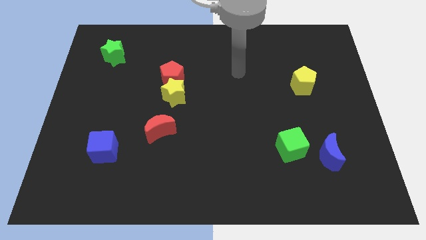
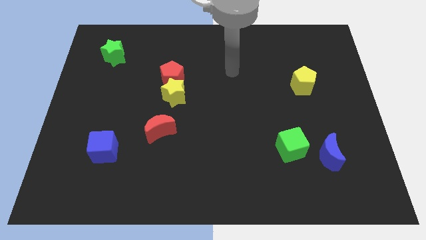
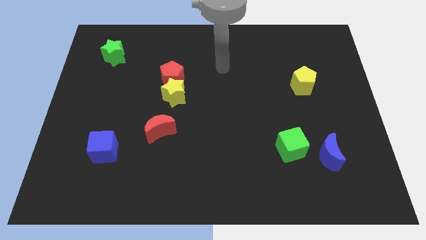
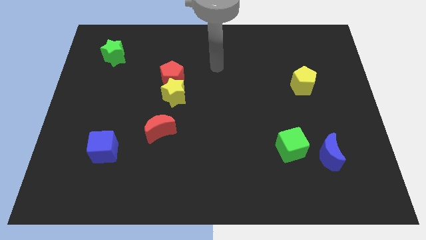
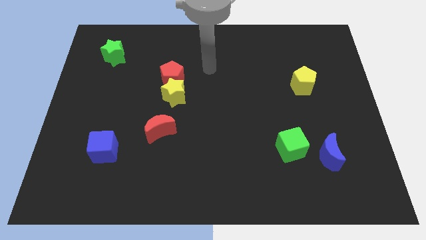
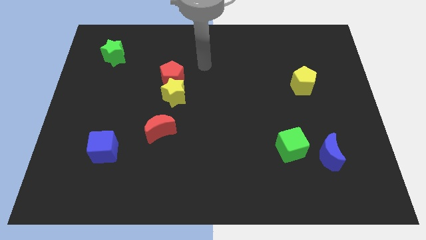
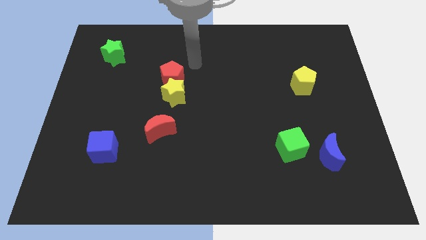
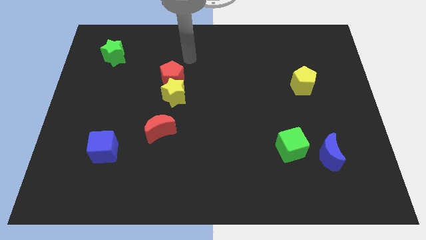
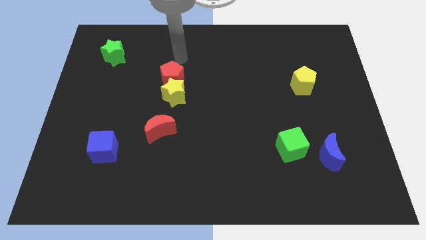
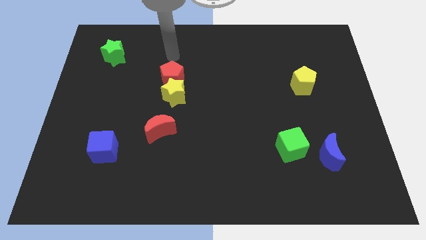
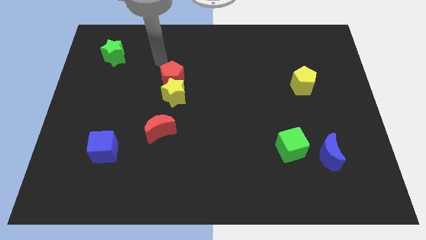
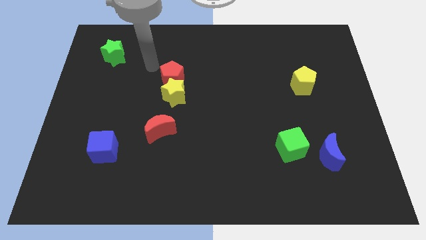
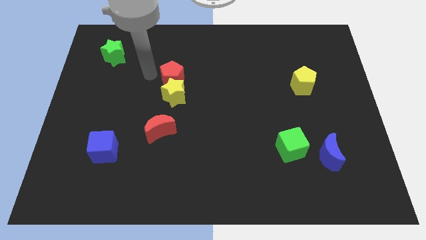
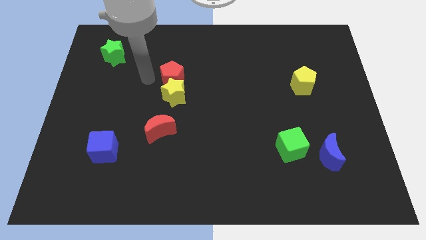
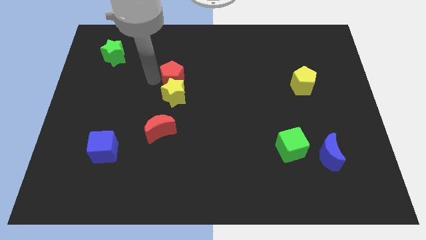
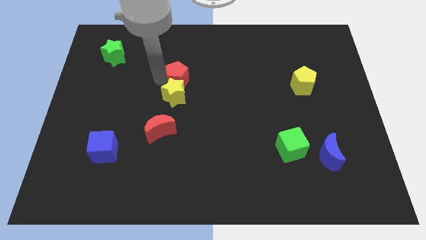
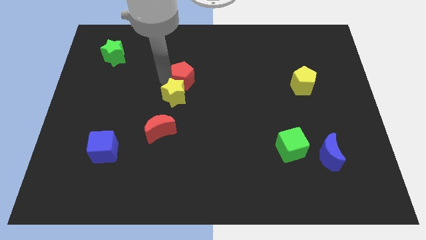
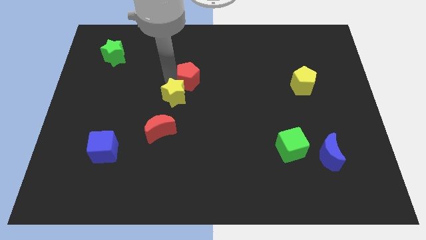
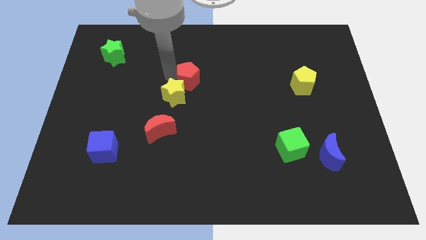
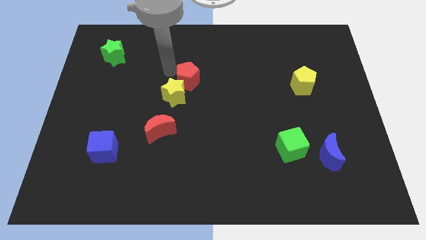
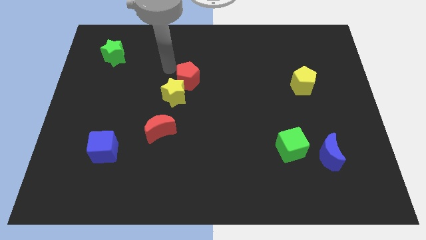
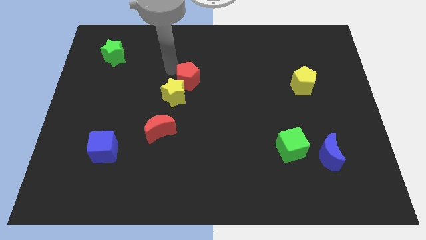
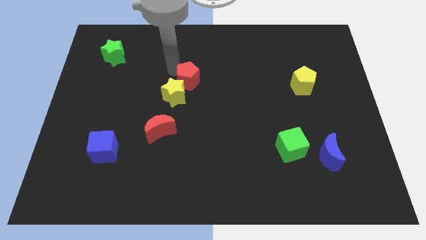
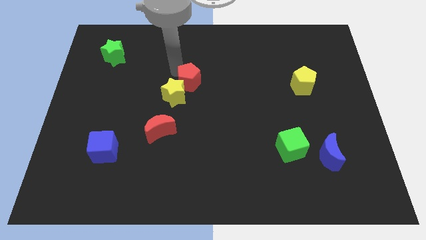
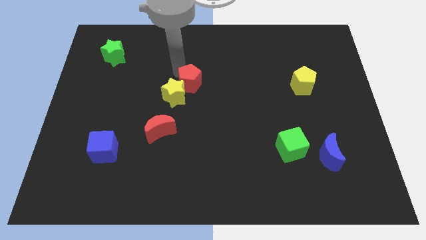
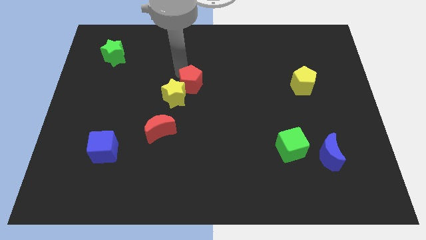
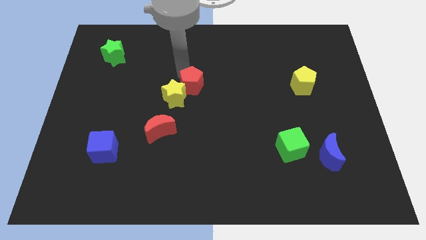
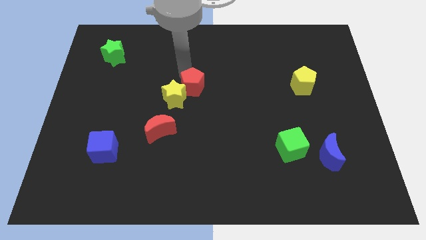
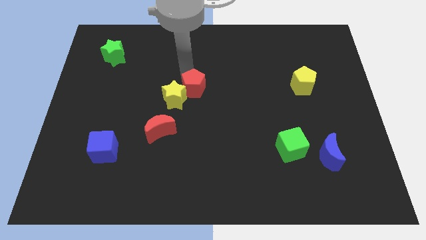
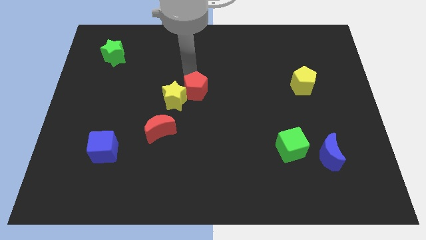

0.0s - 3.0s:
move the red pentagon down and to the right a little bit

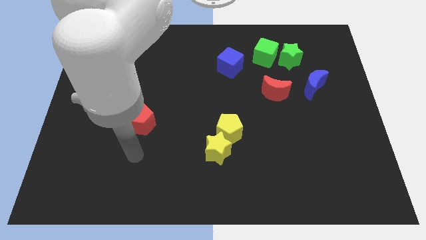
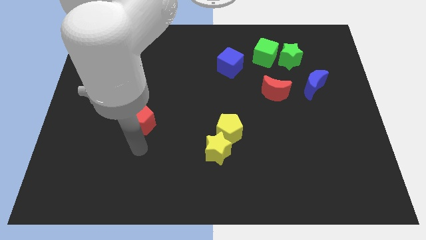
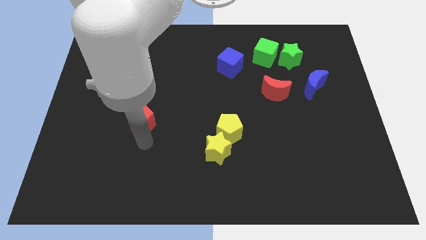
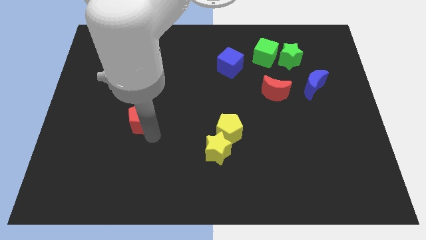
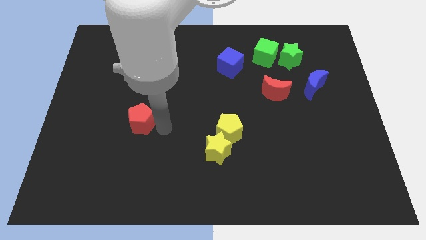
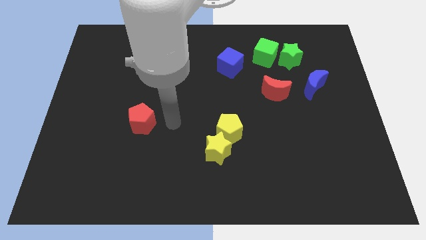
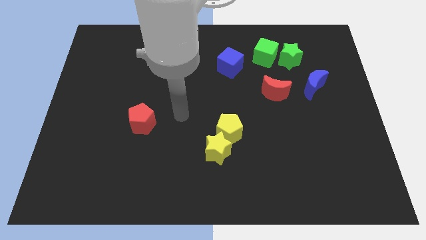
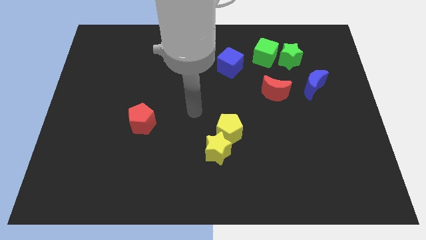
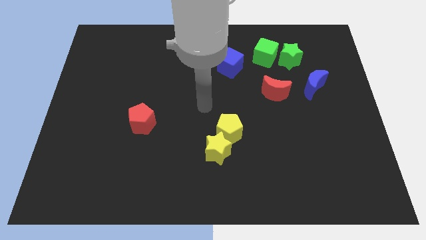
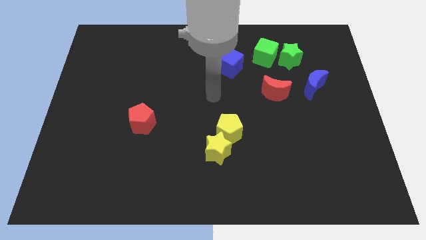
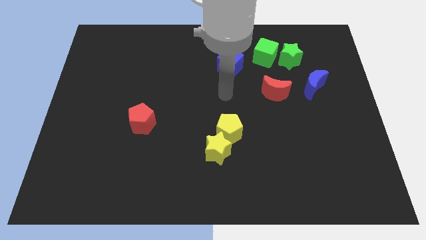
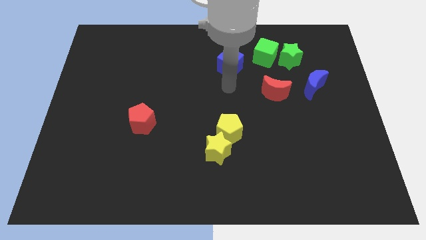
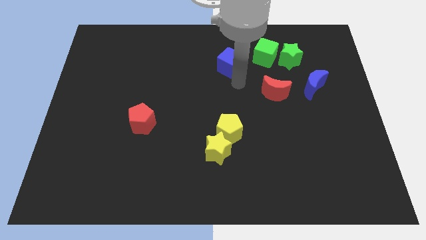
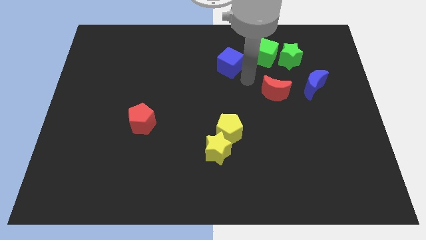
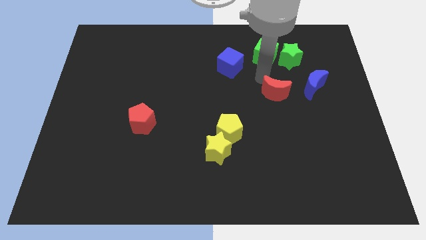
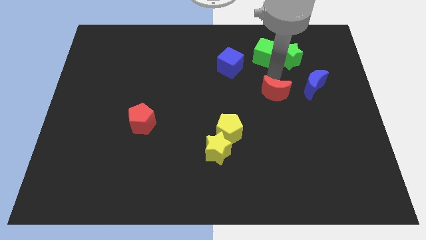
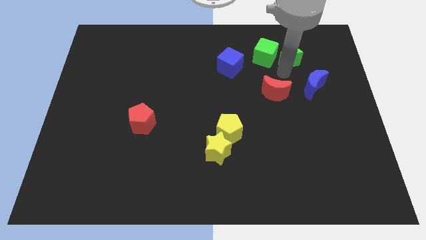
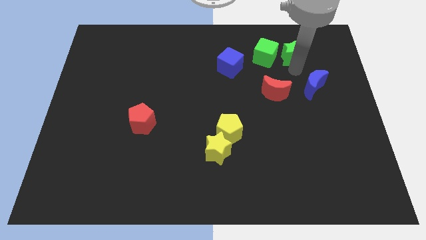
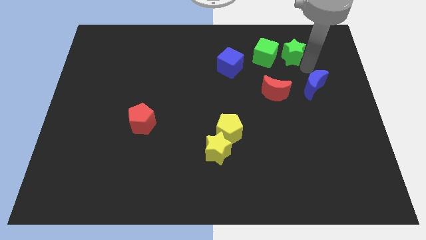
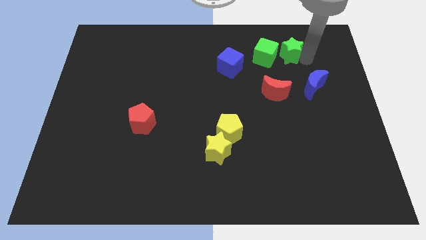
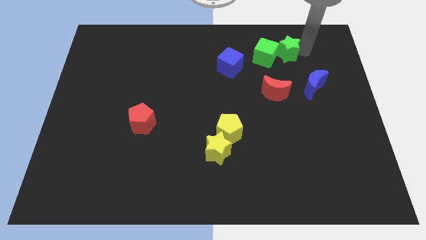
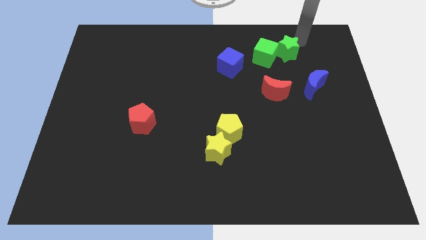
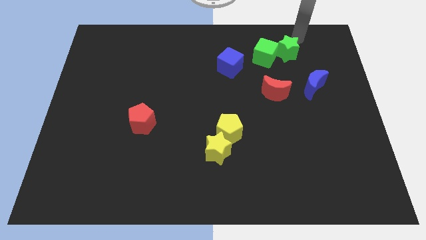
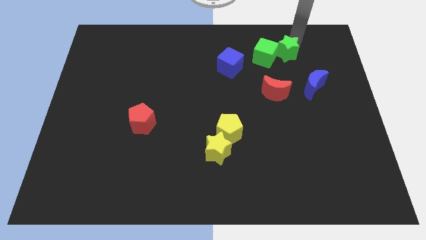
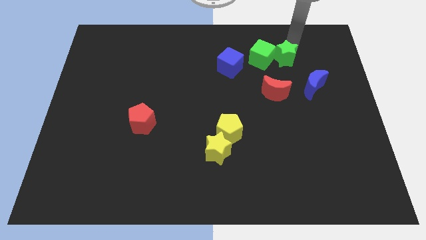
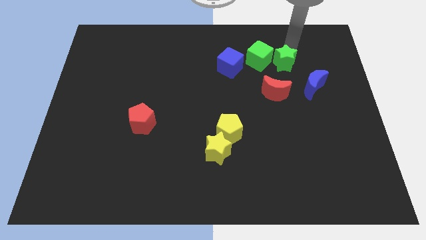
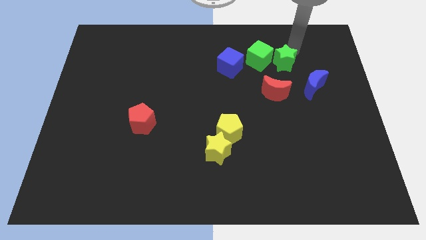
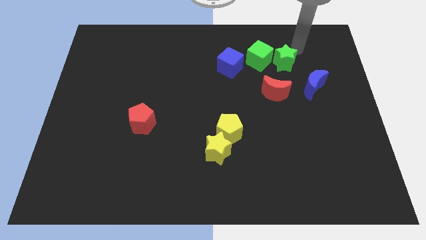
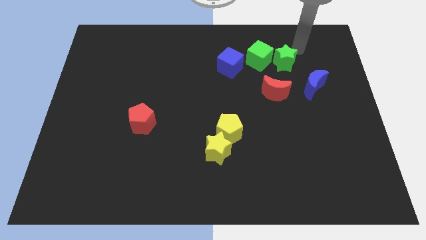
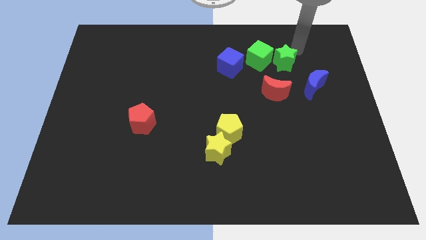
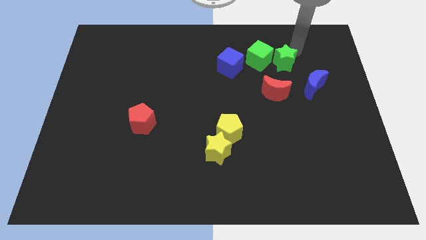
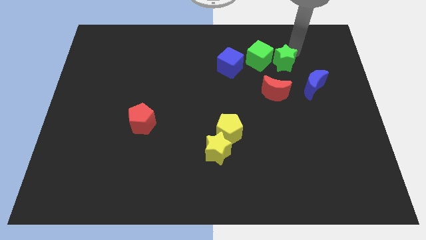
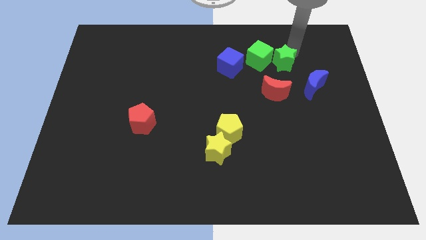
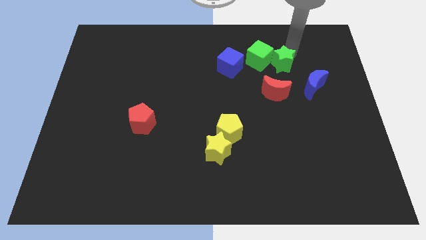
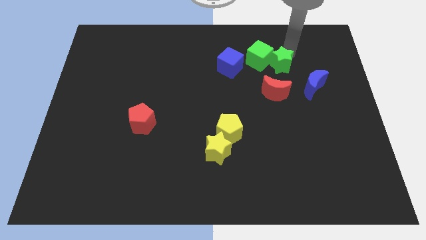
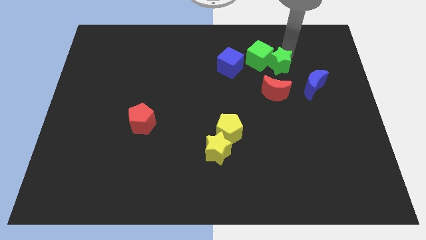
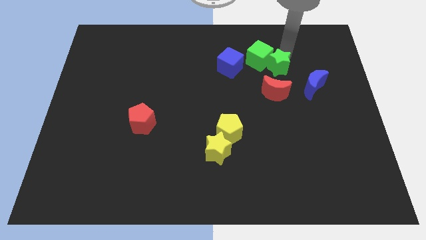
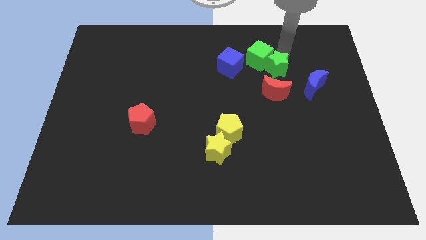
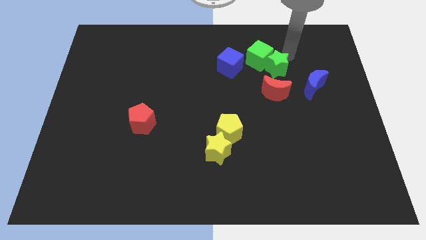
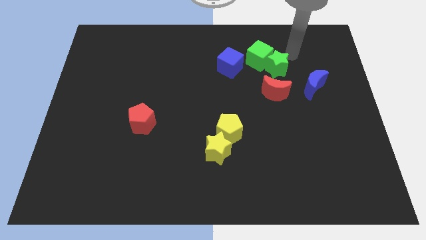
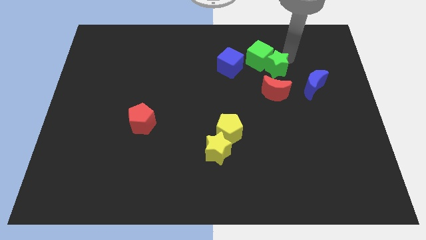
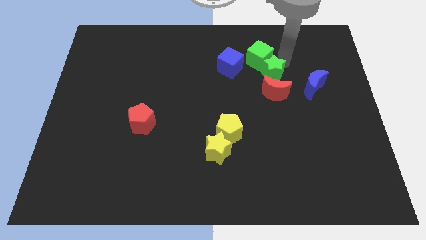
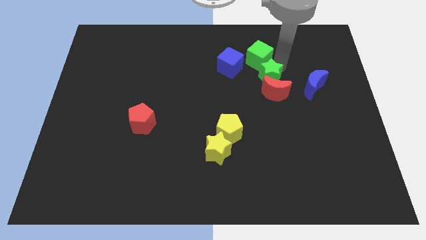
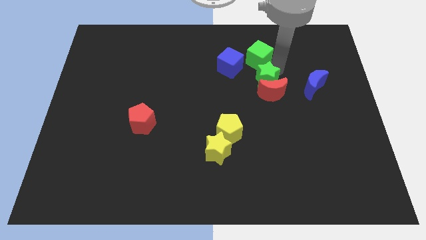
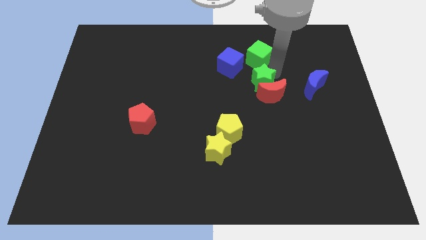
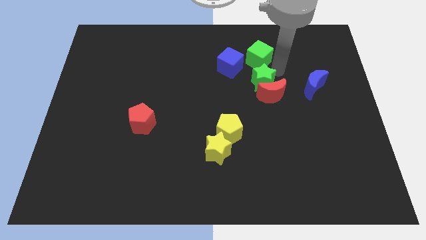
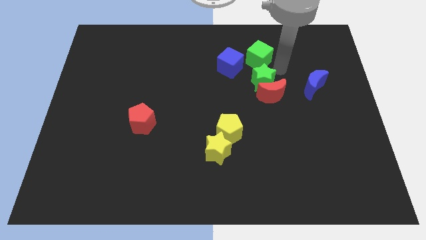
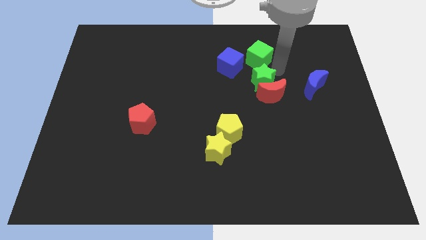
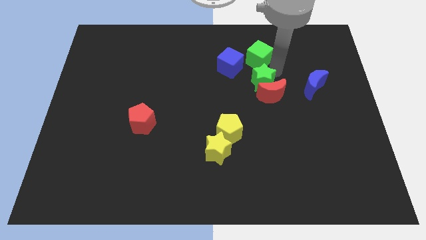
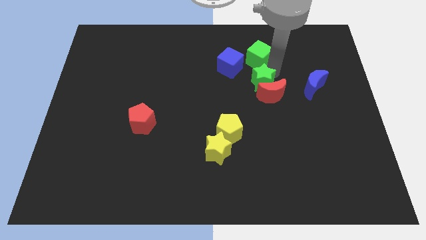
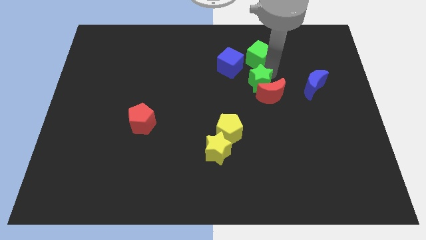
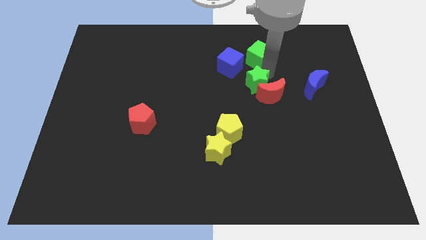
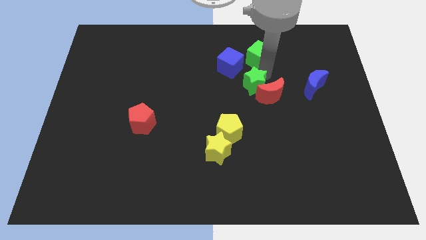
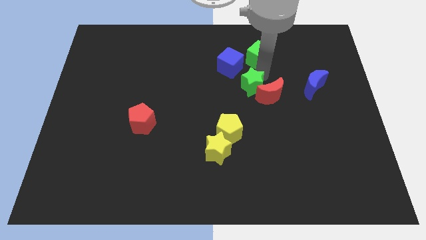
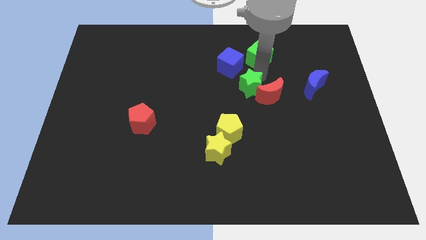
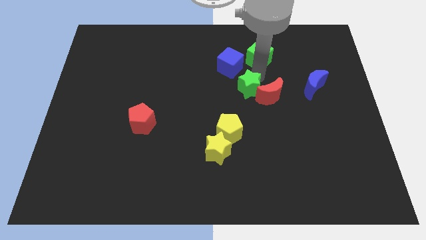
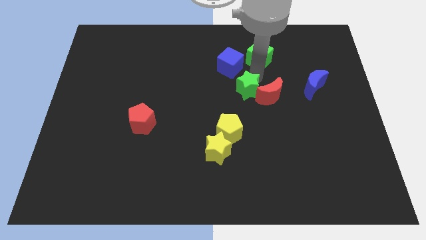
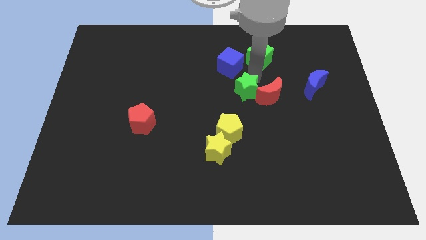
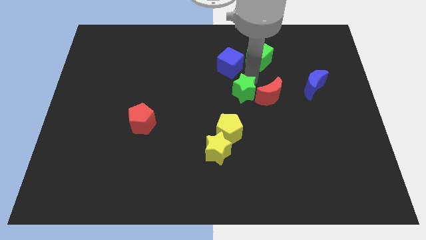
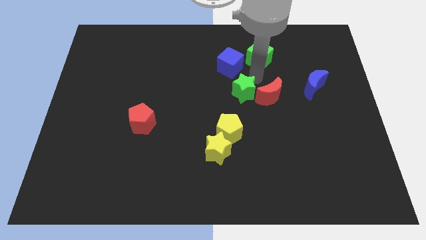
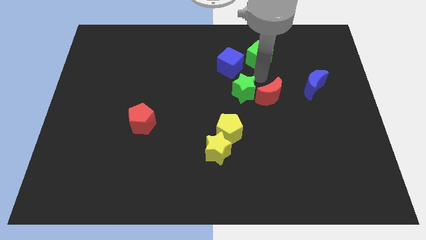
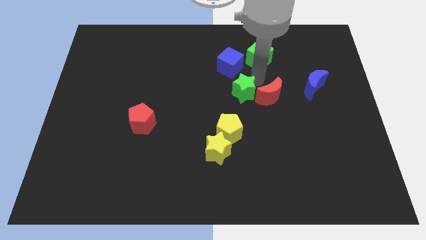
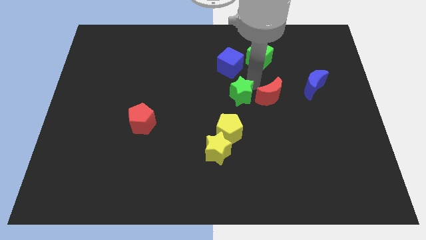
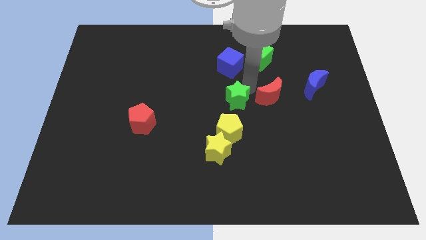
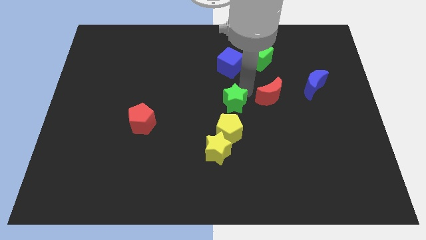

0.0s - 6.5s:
move the green star downwards and then left
